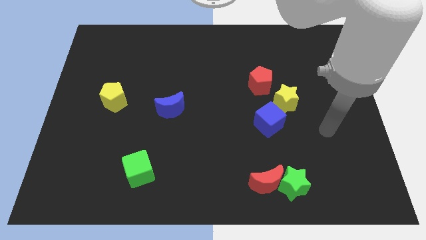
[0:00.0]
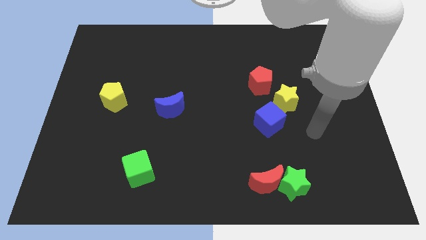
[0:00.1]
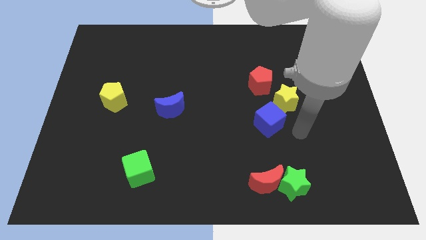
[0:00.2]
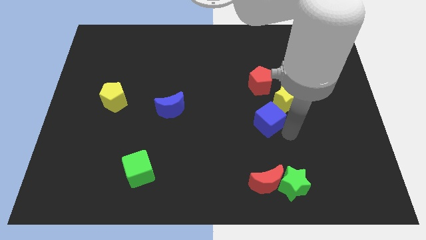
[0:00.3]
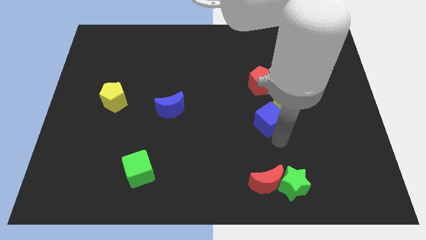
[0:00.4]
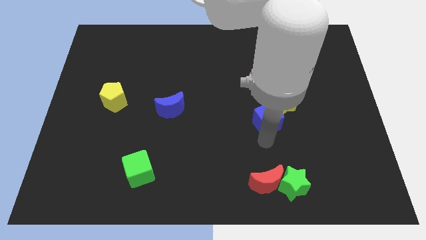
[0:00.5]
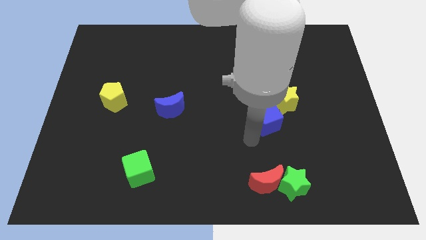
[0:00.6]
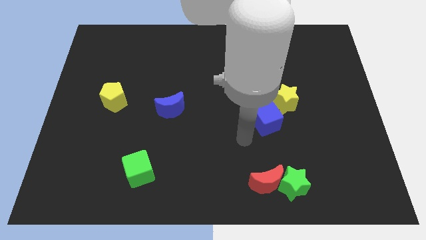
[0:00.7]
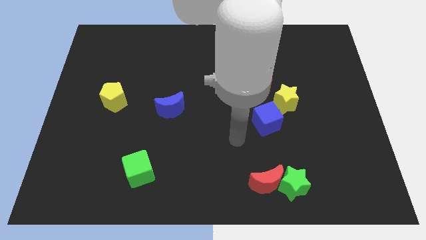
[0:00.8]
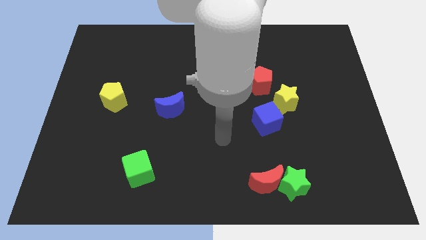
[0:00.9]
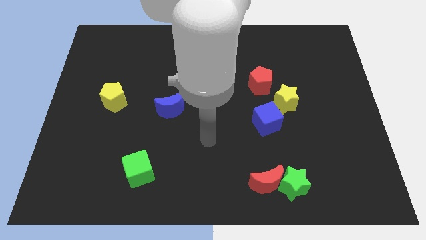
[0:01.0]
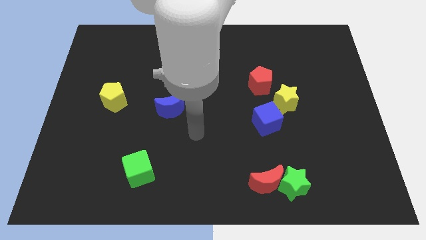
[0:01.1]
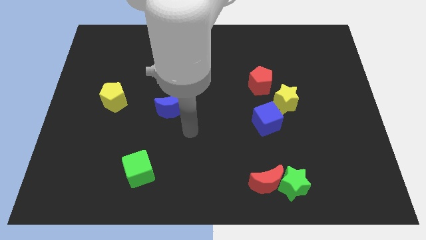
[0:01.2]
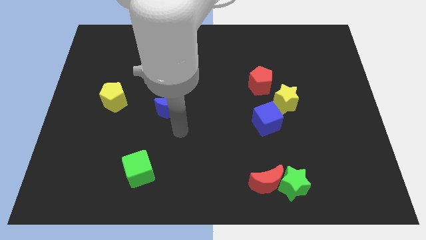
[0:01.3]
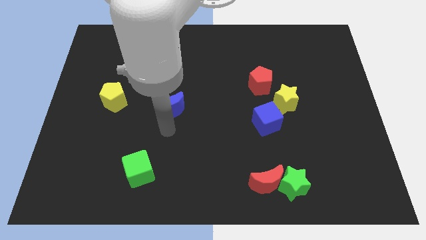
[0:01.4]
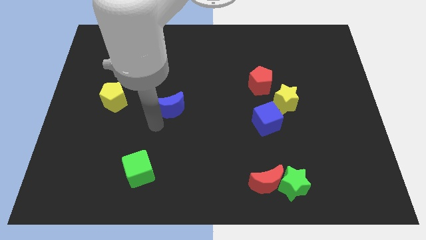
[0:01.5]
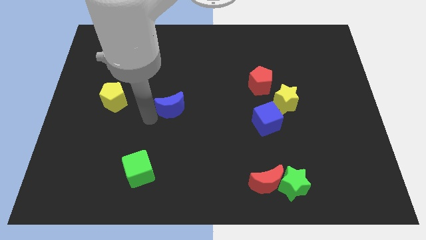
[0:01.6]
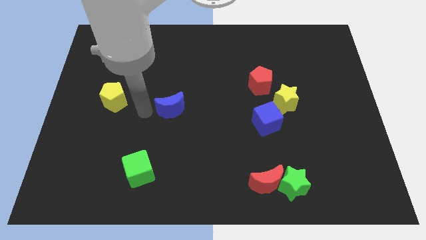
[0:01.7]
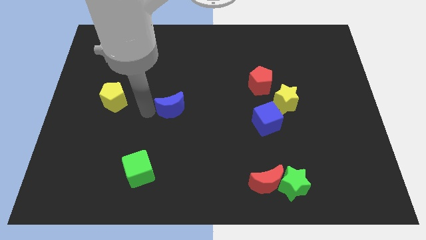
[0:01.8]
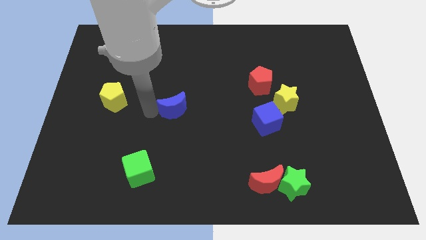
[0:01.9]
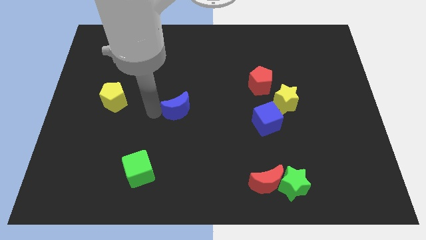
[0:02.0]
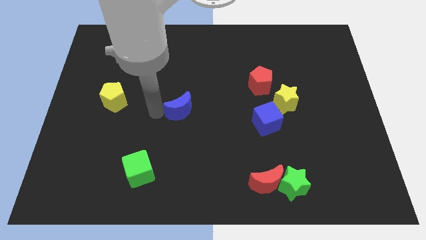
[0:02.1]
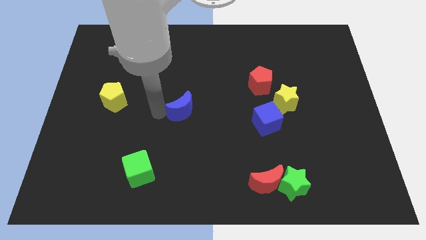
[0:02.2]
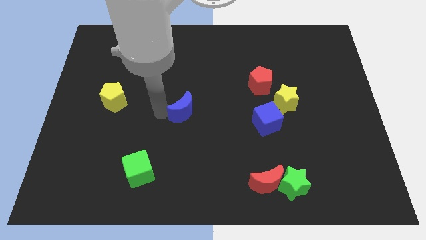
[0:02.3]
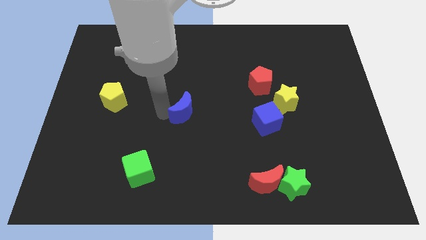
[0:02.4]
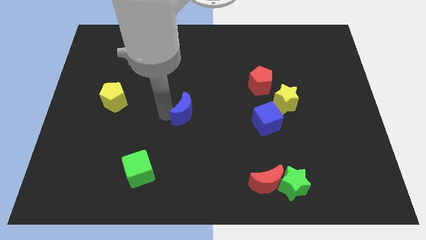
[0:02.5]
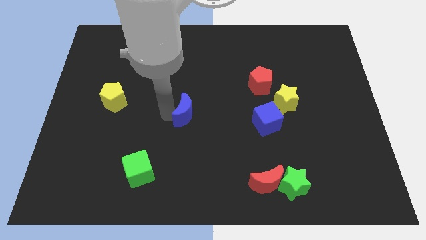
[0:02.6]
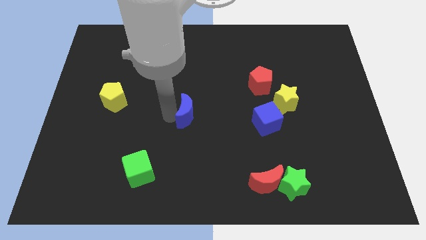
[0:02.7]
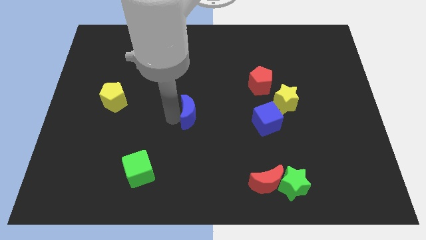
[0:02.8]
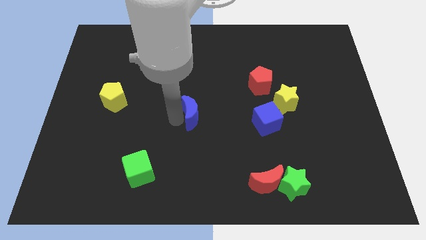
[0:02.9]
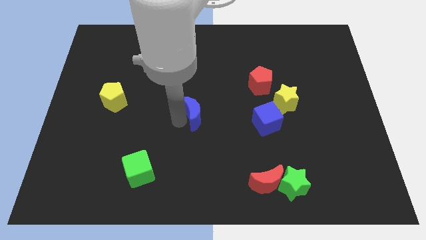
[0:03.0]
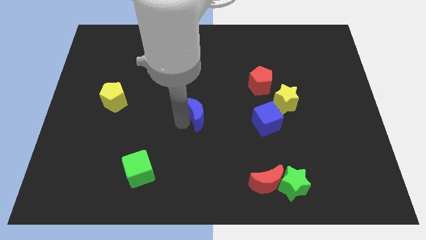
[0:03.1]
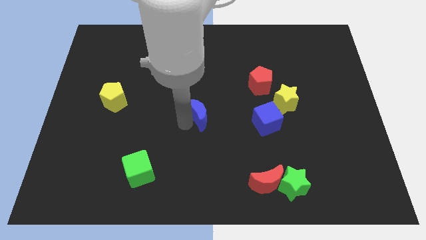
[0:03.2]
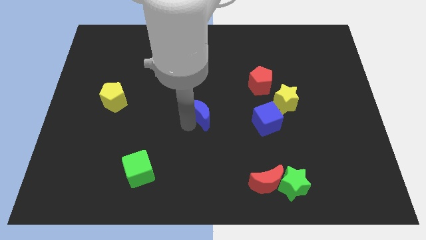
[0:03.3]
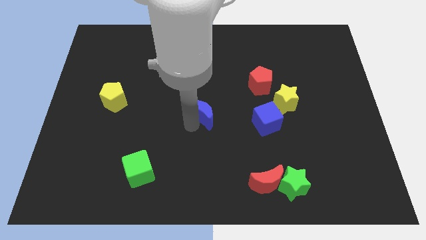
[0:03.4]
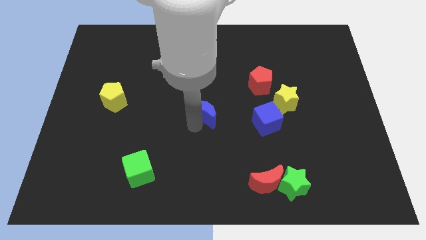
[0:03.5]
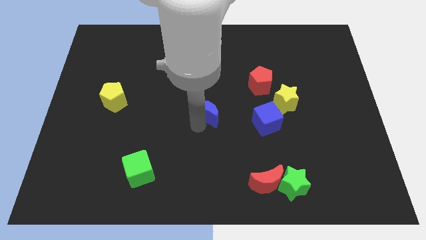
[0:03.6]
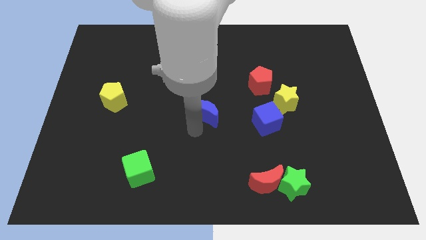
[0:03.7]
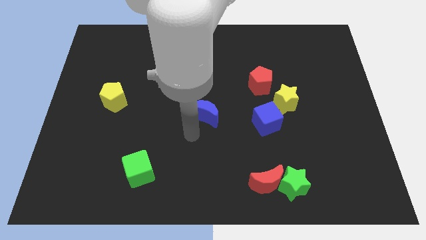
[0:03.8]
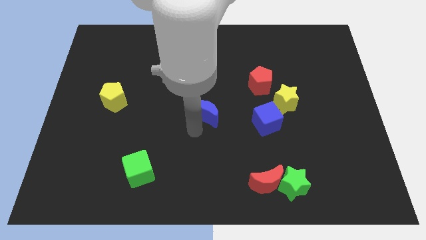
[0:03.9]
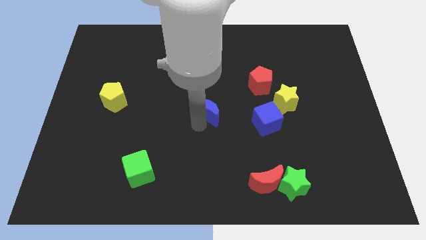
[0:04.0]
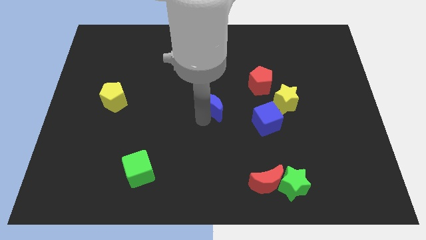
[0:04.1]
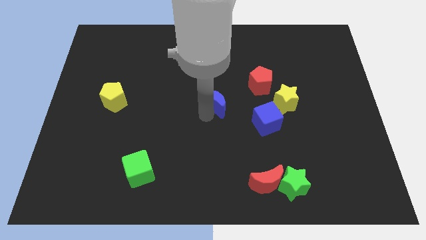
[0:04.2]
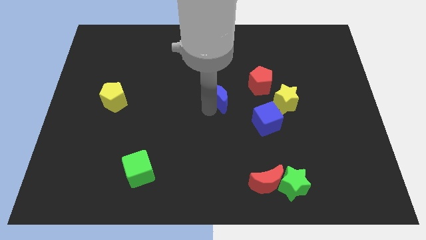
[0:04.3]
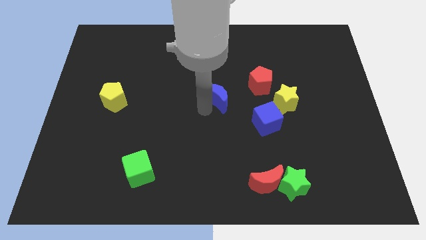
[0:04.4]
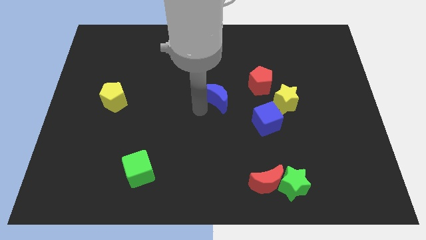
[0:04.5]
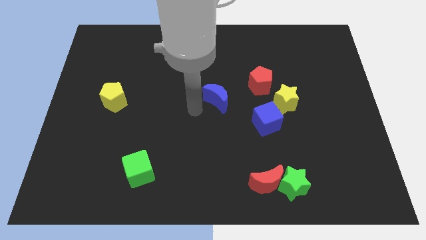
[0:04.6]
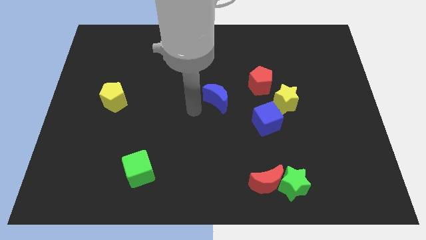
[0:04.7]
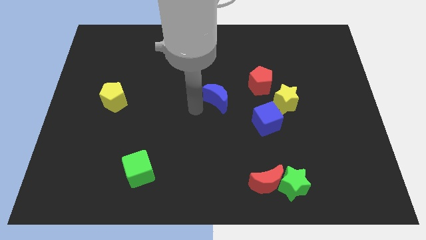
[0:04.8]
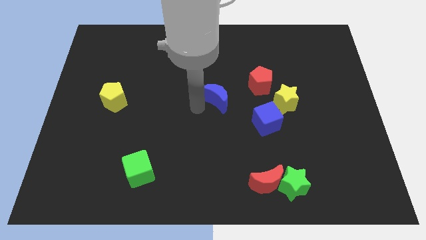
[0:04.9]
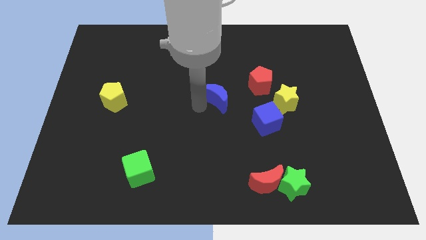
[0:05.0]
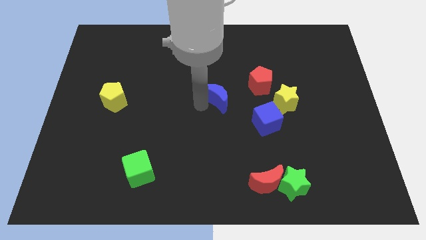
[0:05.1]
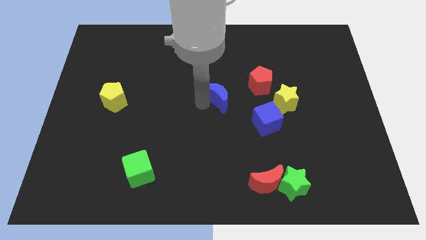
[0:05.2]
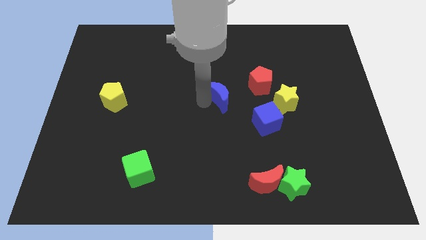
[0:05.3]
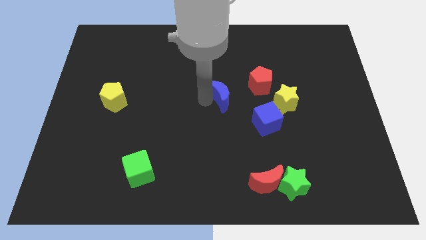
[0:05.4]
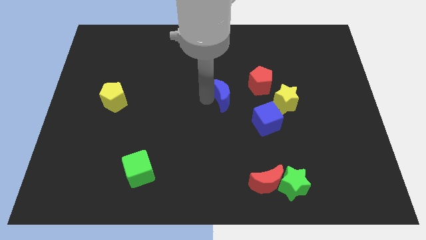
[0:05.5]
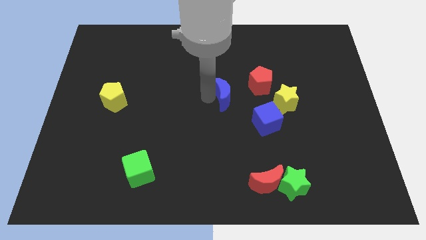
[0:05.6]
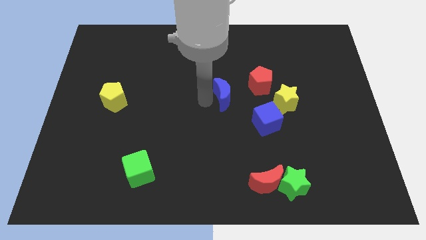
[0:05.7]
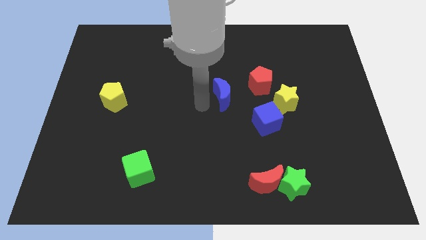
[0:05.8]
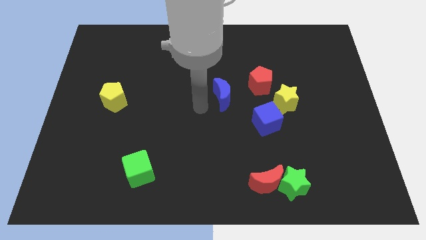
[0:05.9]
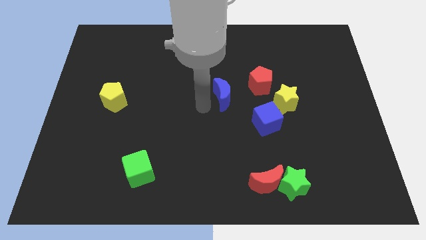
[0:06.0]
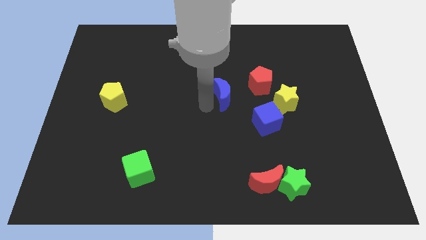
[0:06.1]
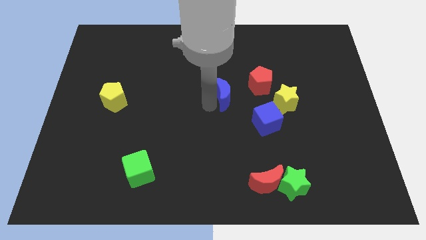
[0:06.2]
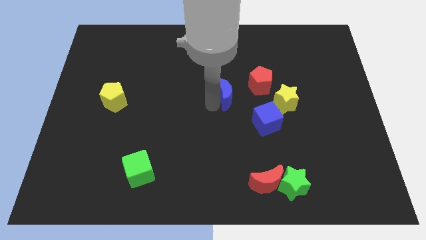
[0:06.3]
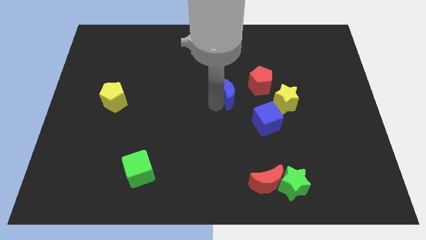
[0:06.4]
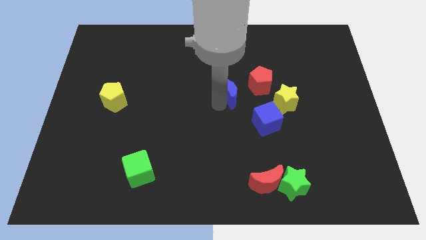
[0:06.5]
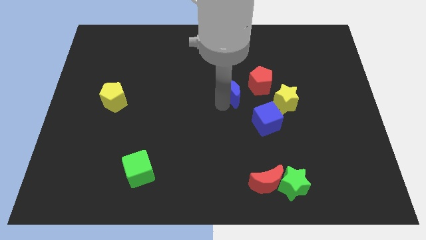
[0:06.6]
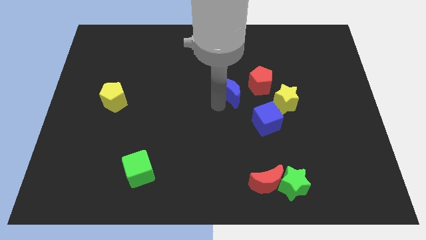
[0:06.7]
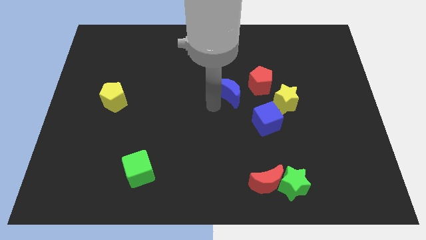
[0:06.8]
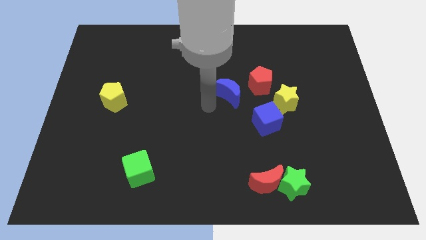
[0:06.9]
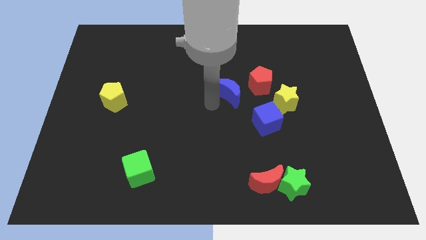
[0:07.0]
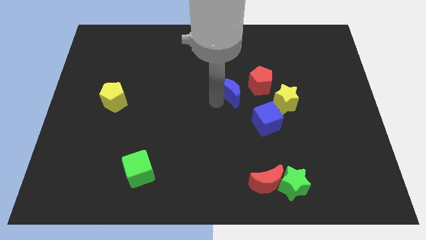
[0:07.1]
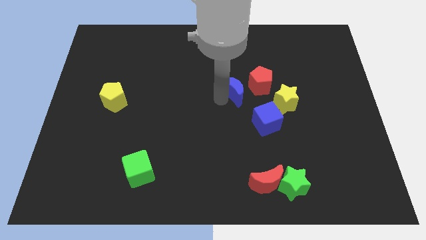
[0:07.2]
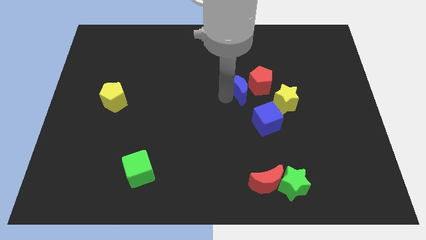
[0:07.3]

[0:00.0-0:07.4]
put the blue moon next to the red pentagon

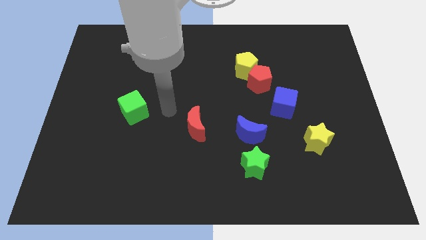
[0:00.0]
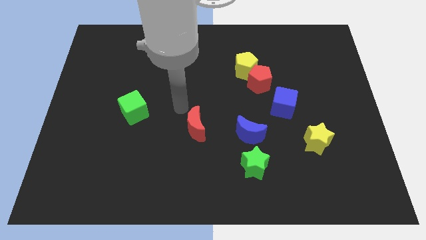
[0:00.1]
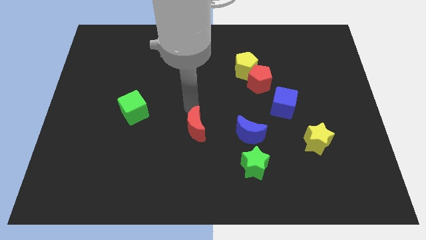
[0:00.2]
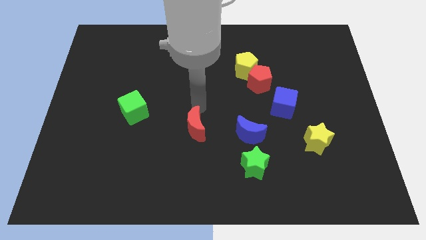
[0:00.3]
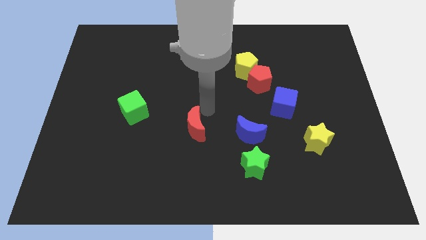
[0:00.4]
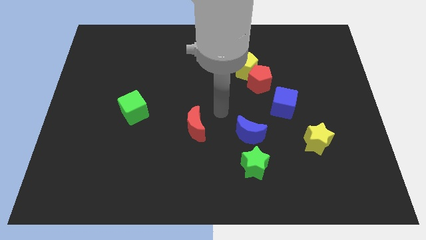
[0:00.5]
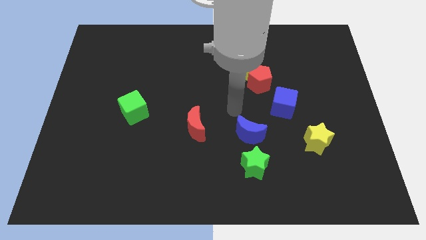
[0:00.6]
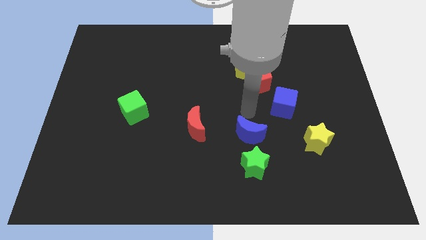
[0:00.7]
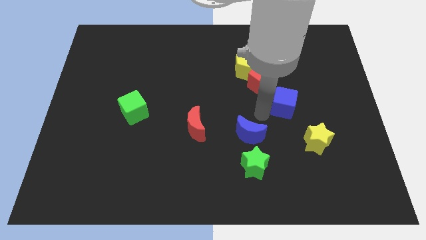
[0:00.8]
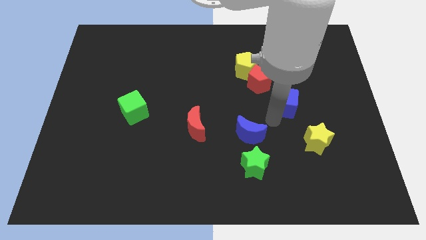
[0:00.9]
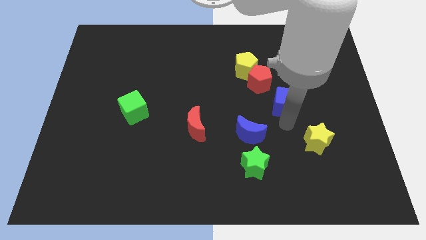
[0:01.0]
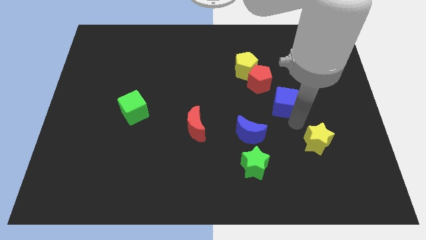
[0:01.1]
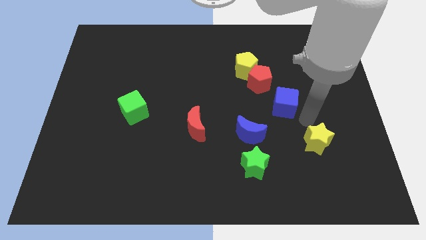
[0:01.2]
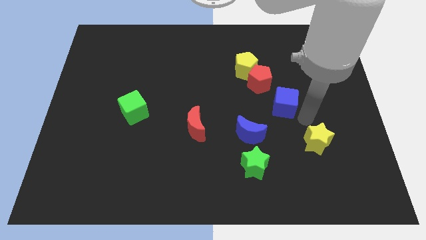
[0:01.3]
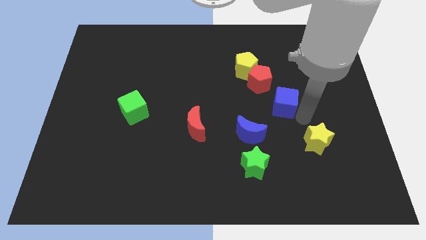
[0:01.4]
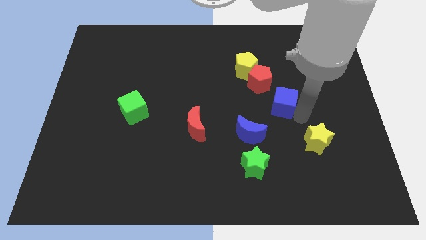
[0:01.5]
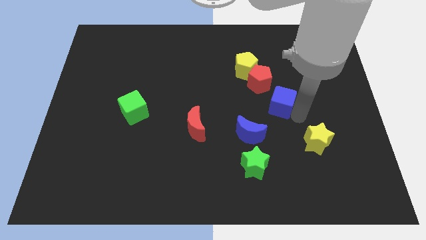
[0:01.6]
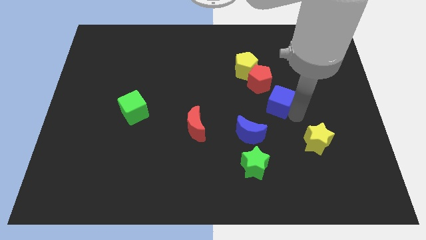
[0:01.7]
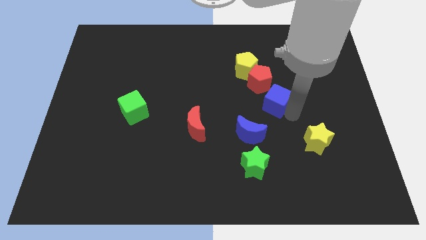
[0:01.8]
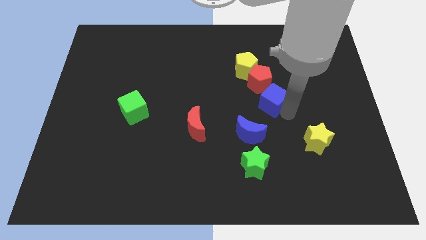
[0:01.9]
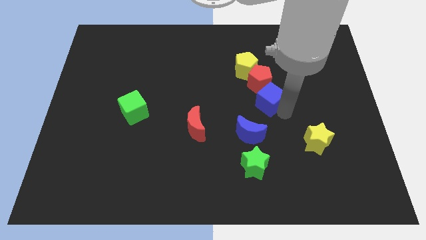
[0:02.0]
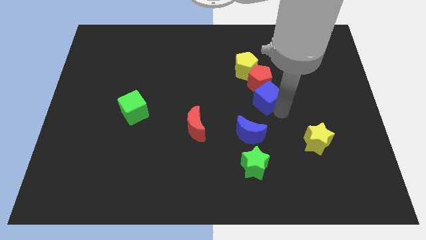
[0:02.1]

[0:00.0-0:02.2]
put the blue cube close to the red pentagon
